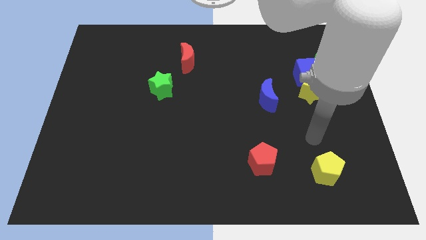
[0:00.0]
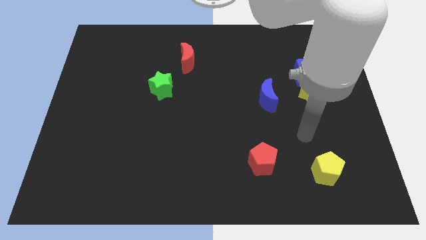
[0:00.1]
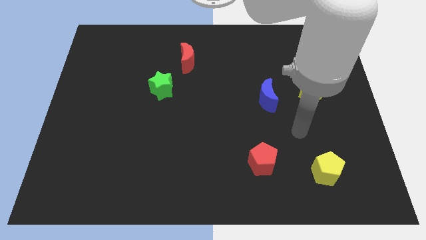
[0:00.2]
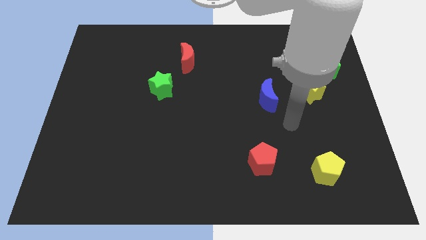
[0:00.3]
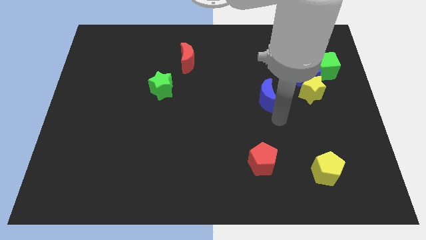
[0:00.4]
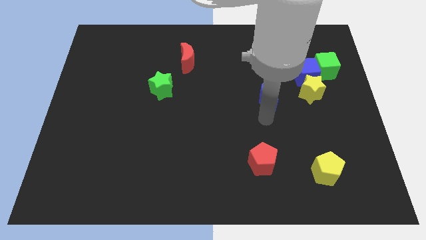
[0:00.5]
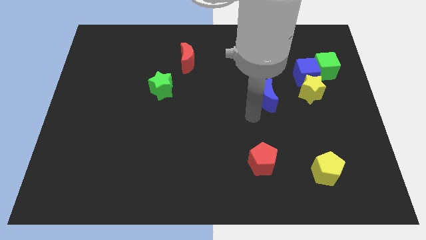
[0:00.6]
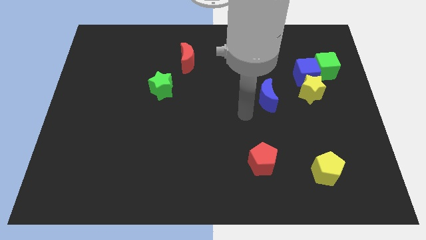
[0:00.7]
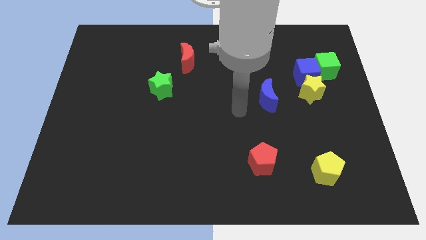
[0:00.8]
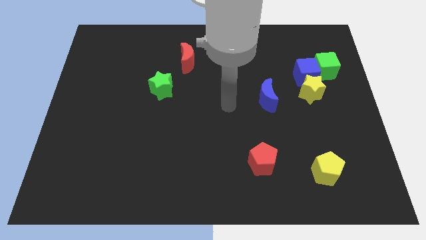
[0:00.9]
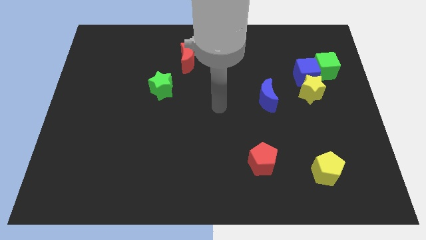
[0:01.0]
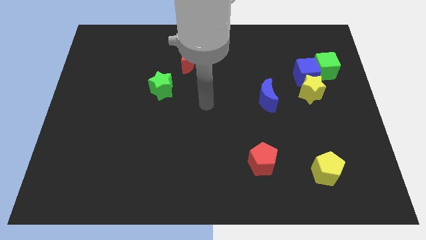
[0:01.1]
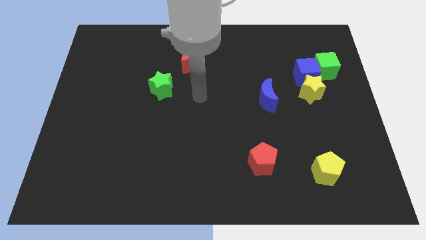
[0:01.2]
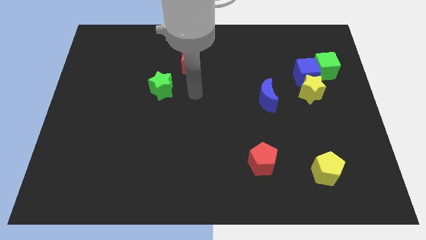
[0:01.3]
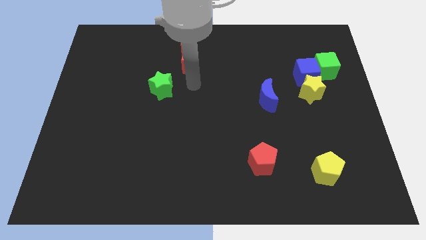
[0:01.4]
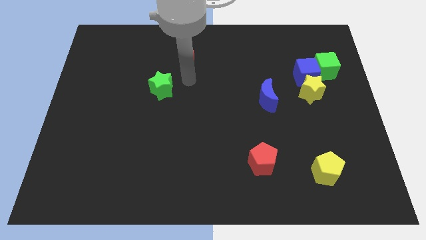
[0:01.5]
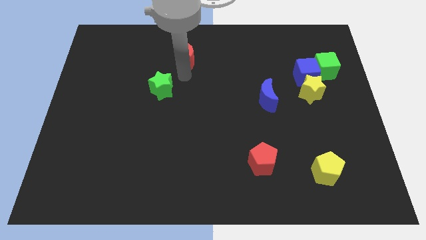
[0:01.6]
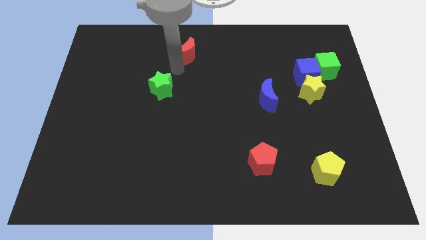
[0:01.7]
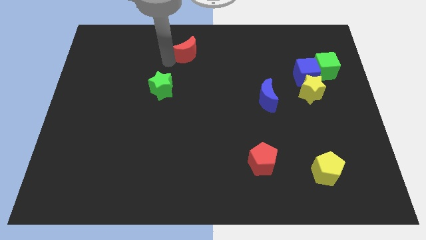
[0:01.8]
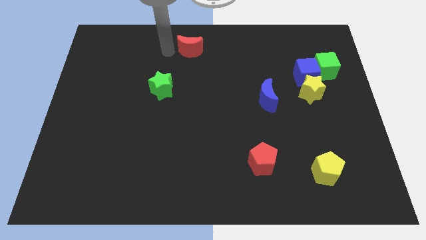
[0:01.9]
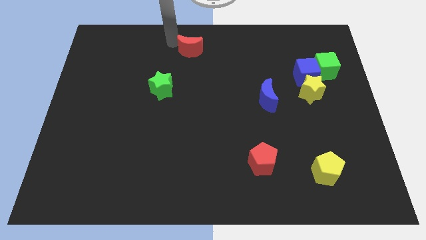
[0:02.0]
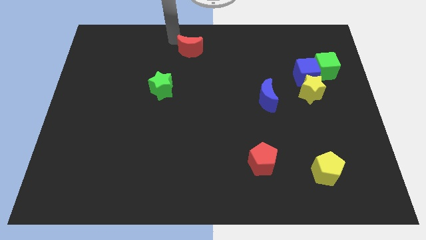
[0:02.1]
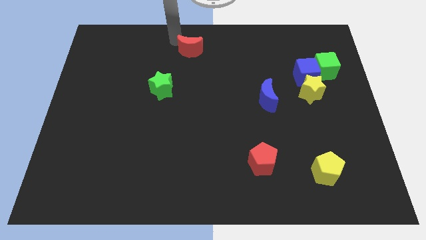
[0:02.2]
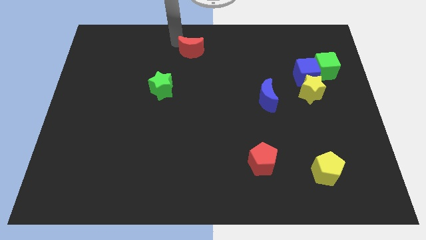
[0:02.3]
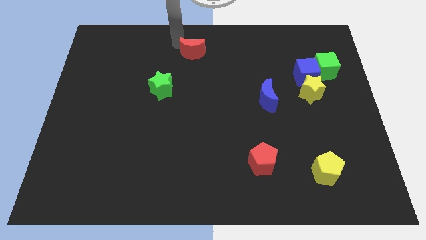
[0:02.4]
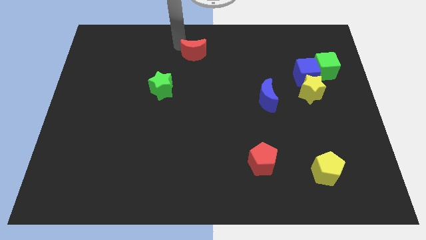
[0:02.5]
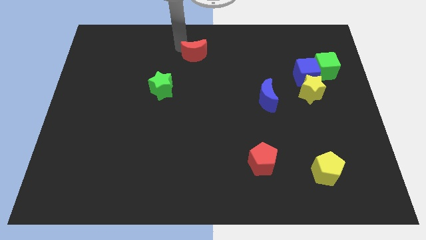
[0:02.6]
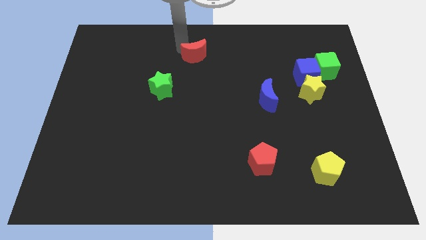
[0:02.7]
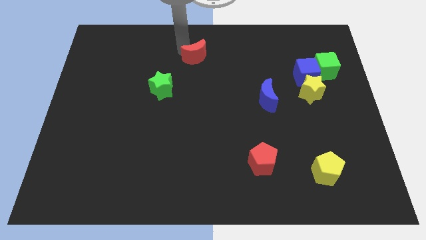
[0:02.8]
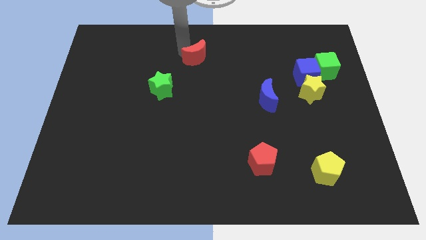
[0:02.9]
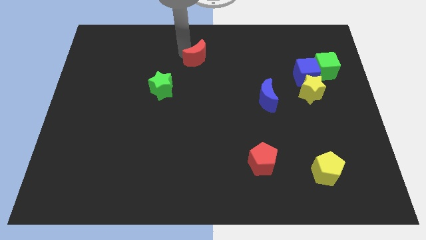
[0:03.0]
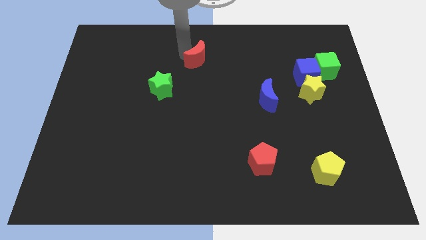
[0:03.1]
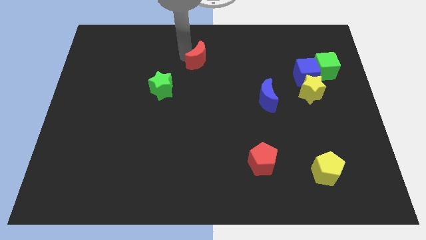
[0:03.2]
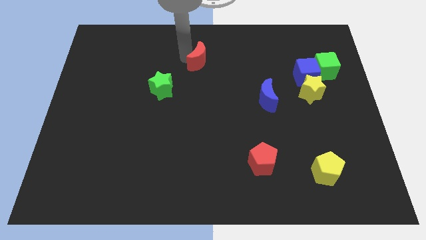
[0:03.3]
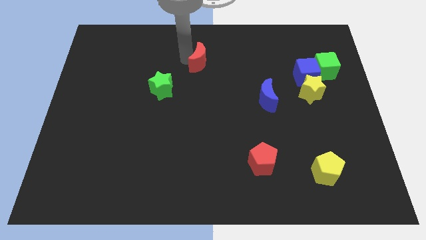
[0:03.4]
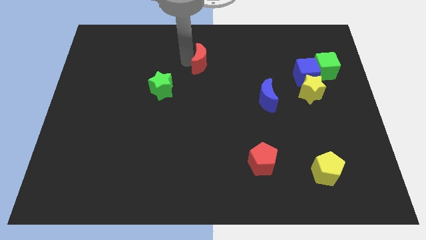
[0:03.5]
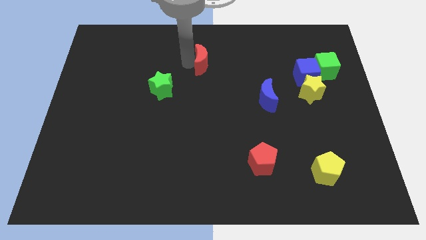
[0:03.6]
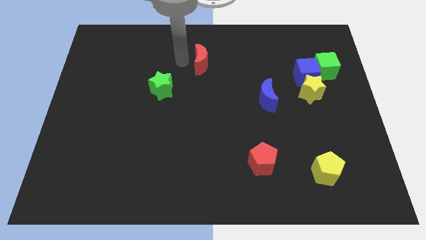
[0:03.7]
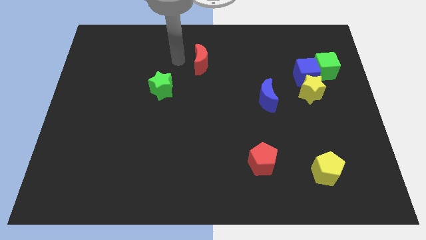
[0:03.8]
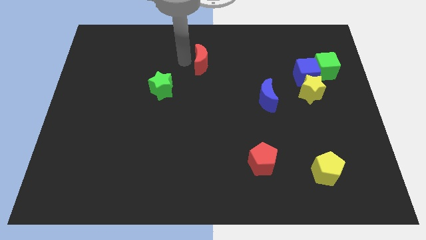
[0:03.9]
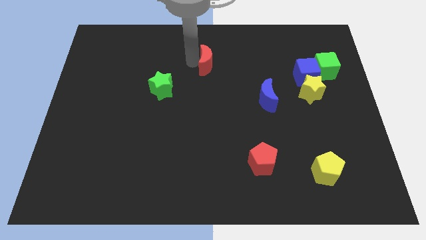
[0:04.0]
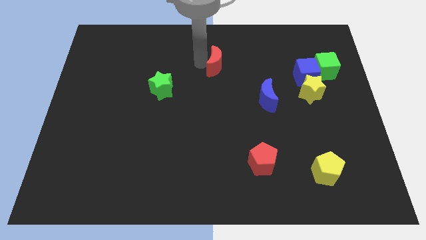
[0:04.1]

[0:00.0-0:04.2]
slightly push the red moon right

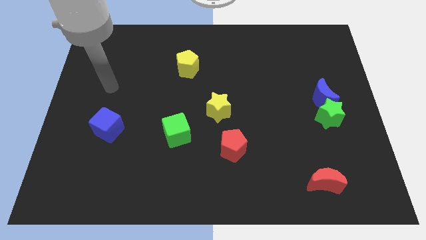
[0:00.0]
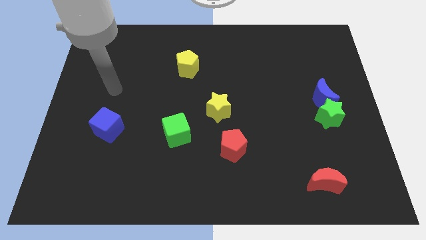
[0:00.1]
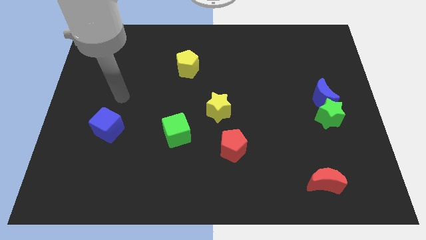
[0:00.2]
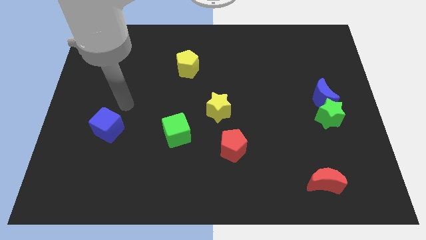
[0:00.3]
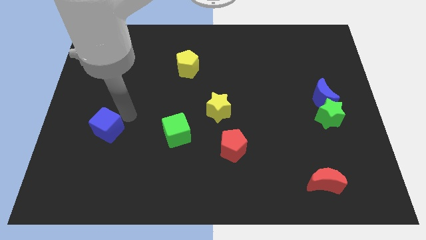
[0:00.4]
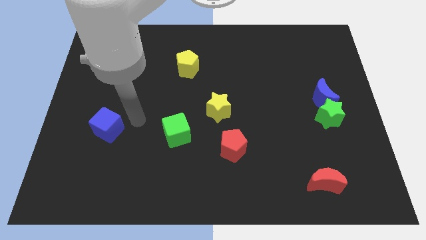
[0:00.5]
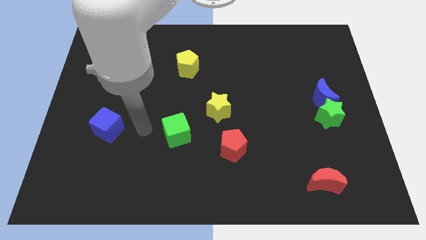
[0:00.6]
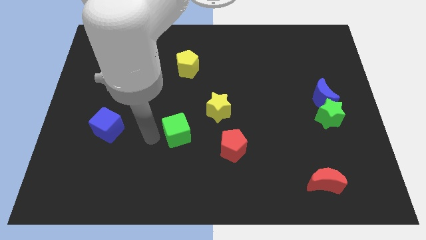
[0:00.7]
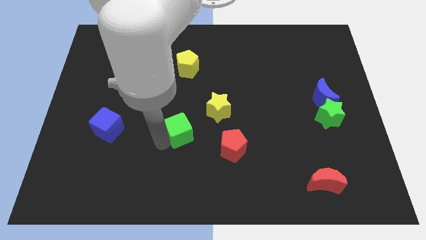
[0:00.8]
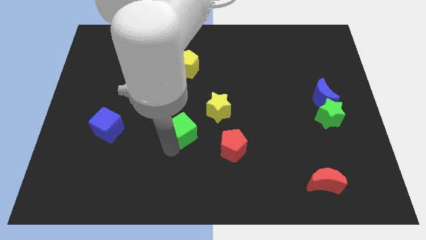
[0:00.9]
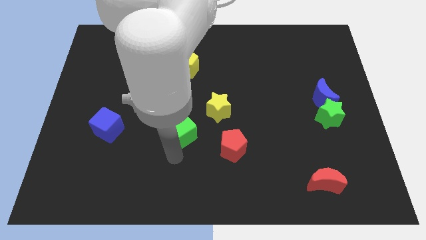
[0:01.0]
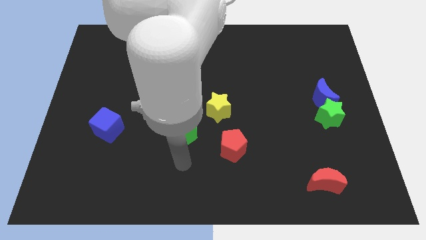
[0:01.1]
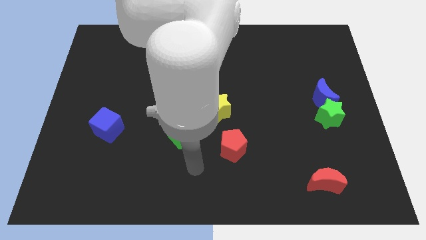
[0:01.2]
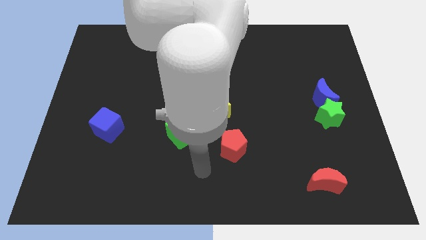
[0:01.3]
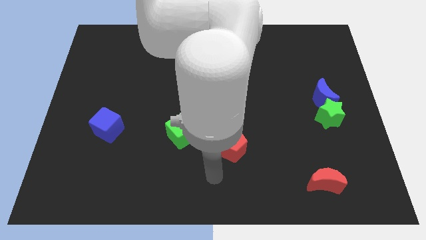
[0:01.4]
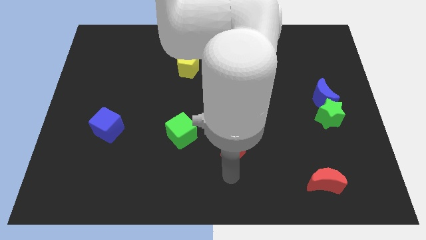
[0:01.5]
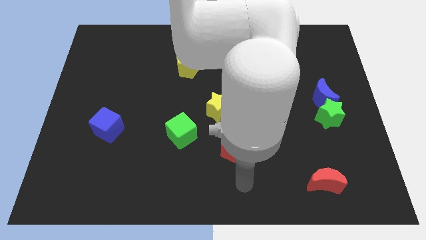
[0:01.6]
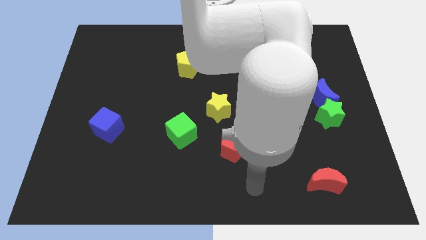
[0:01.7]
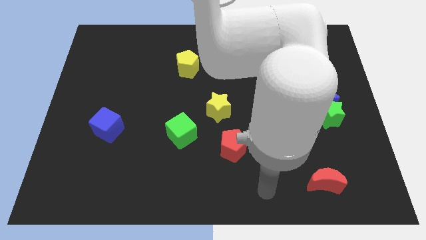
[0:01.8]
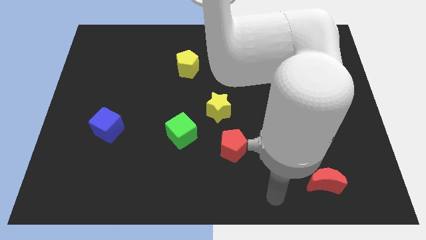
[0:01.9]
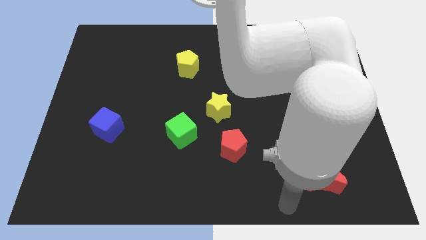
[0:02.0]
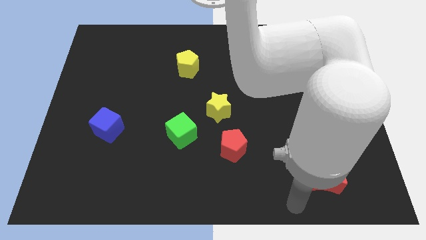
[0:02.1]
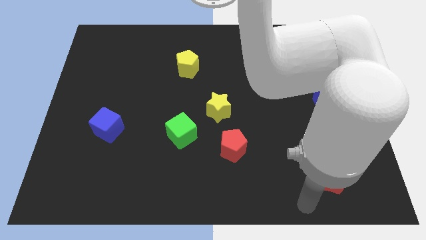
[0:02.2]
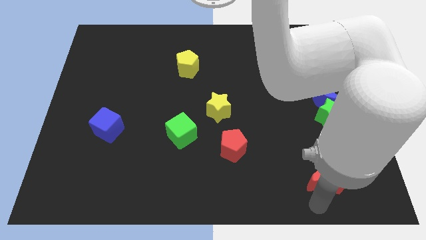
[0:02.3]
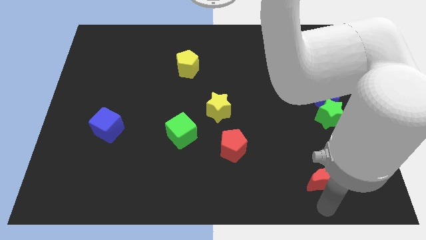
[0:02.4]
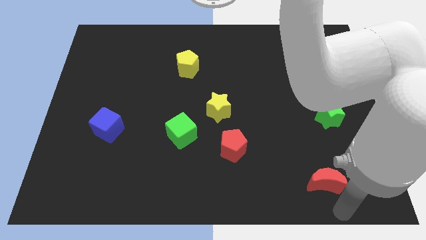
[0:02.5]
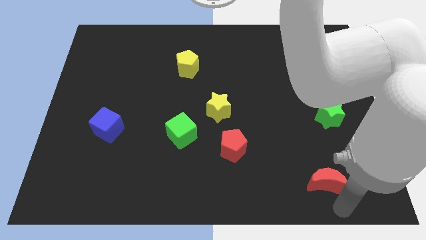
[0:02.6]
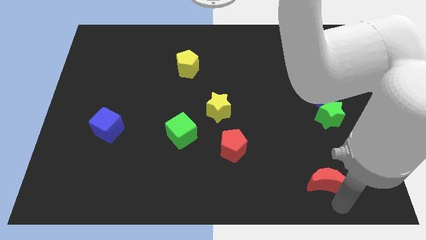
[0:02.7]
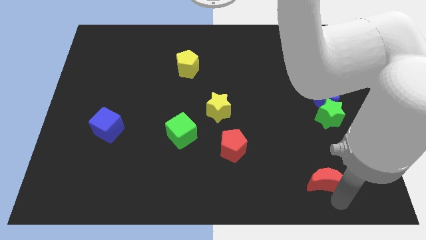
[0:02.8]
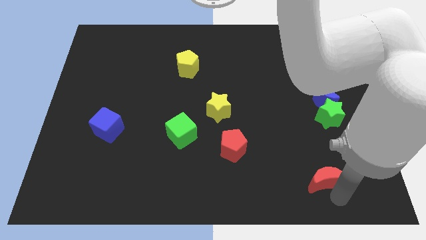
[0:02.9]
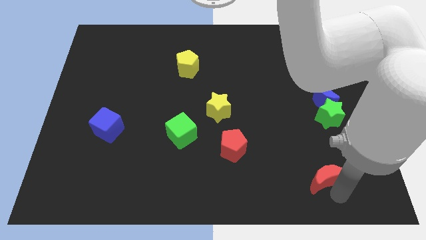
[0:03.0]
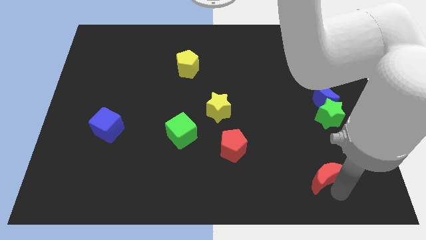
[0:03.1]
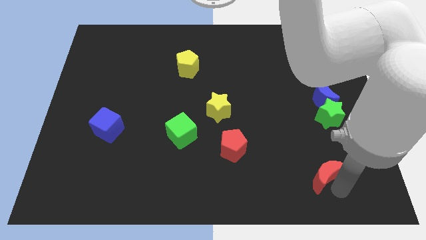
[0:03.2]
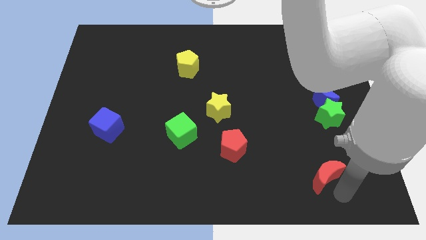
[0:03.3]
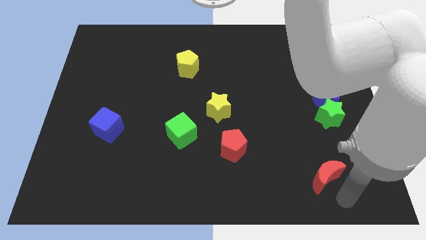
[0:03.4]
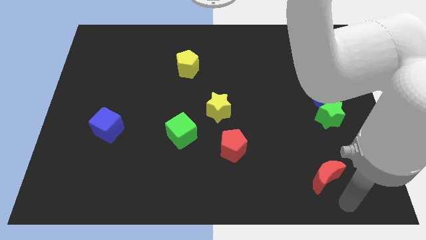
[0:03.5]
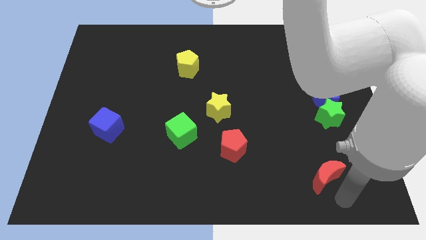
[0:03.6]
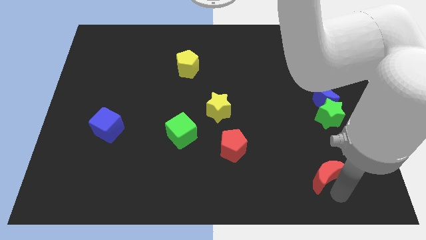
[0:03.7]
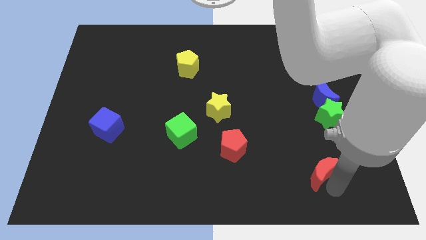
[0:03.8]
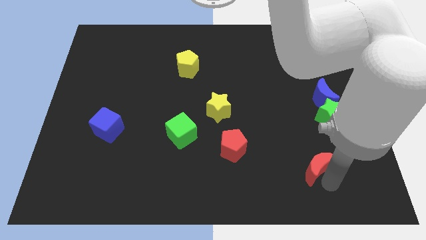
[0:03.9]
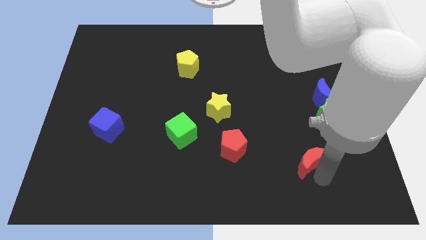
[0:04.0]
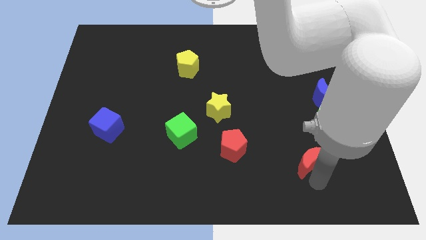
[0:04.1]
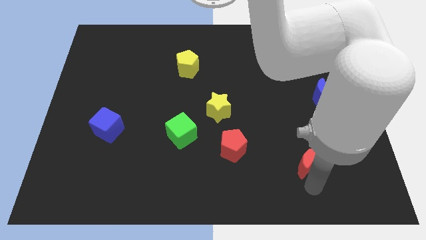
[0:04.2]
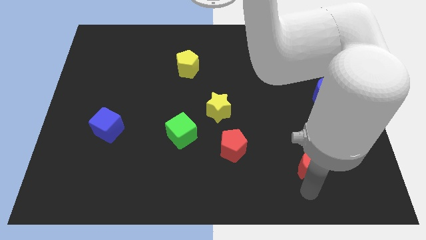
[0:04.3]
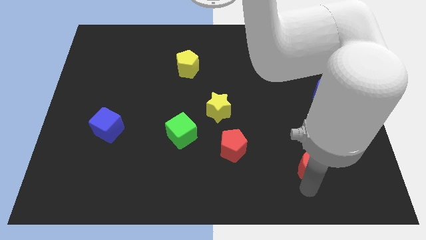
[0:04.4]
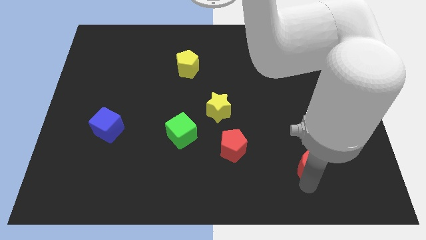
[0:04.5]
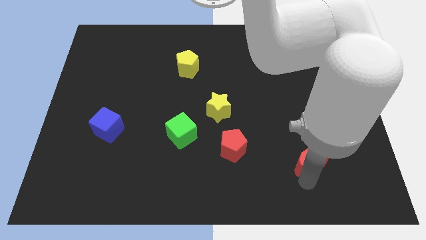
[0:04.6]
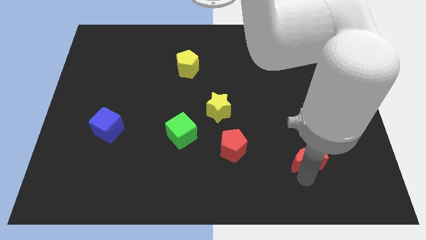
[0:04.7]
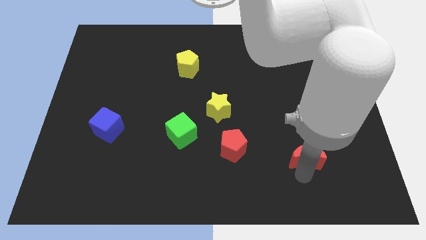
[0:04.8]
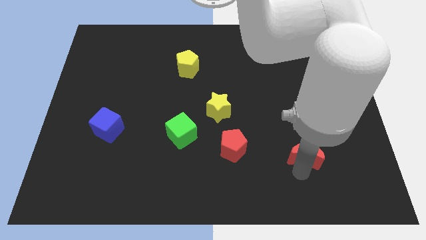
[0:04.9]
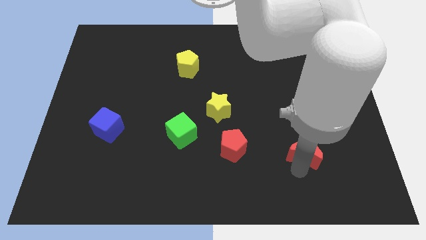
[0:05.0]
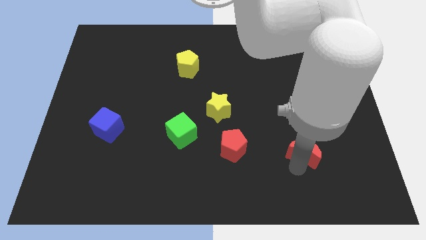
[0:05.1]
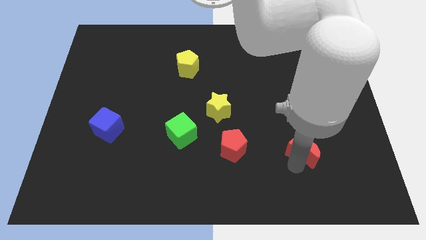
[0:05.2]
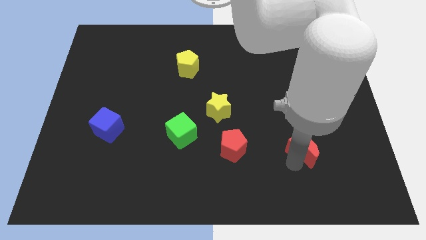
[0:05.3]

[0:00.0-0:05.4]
move the red moon slightly up
